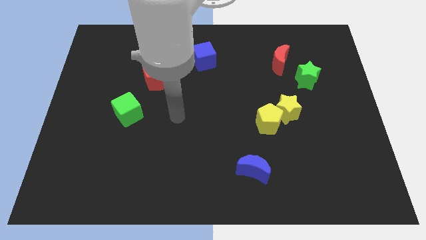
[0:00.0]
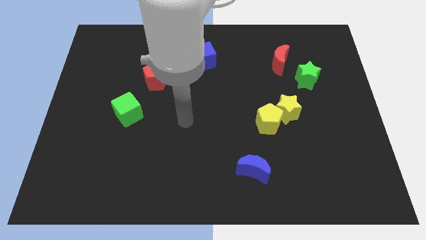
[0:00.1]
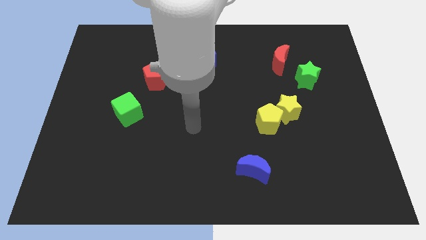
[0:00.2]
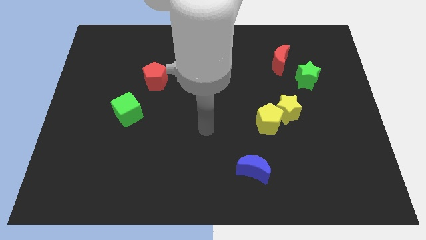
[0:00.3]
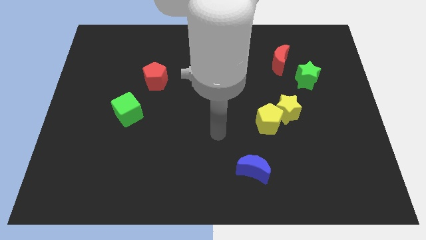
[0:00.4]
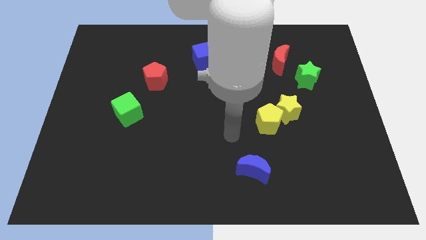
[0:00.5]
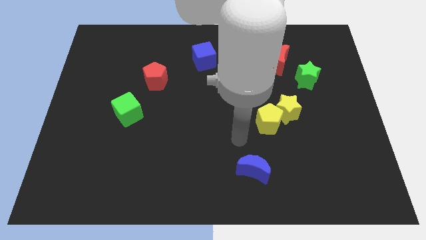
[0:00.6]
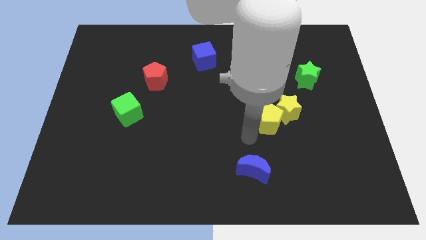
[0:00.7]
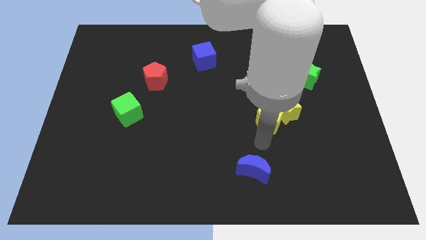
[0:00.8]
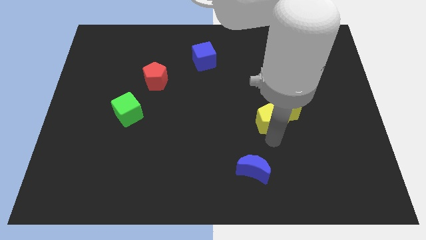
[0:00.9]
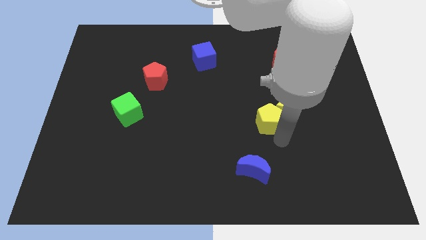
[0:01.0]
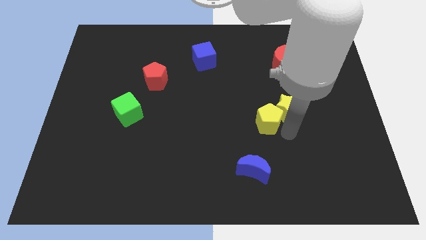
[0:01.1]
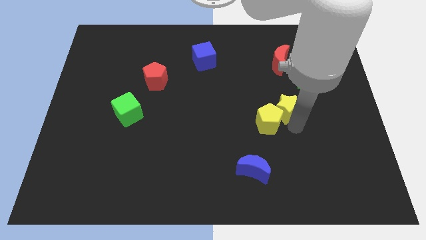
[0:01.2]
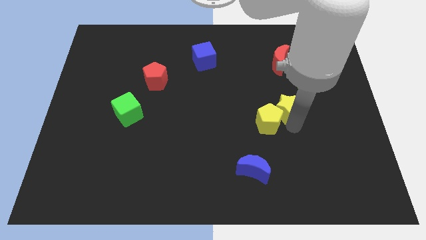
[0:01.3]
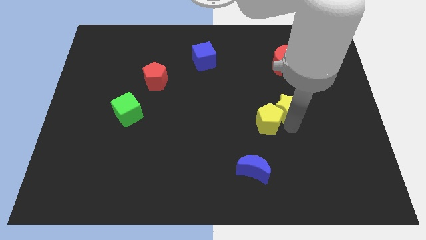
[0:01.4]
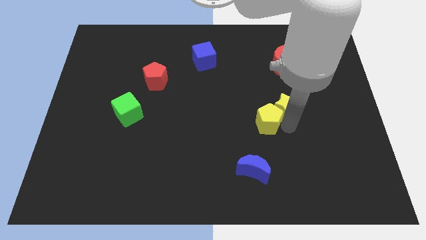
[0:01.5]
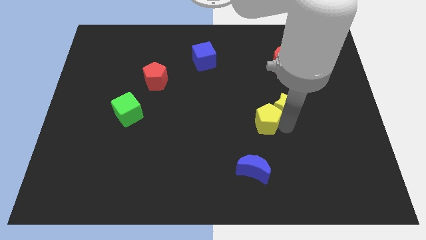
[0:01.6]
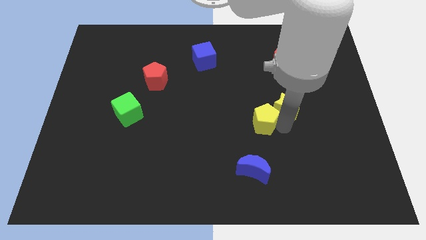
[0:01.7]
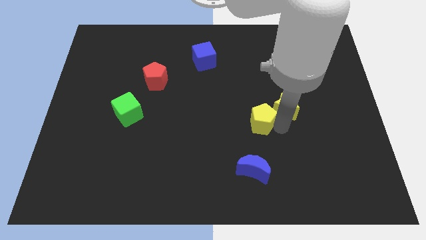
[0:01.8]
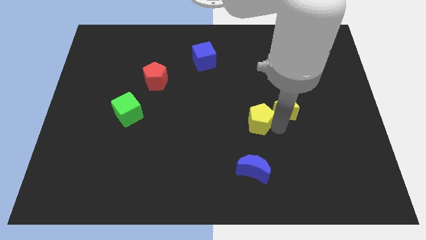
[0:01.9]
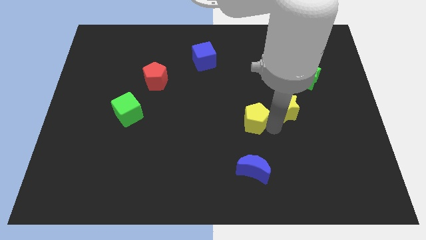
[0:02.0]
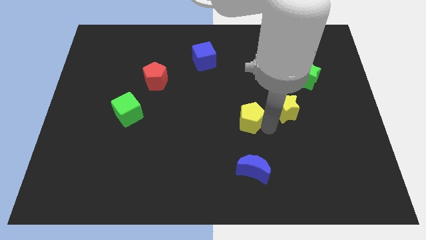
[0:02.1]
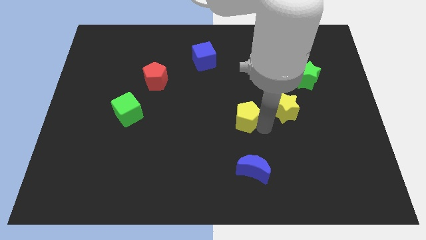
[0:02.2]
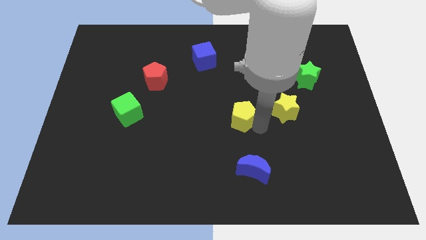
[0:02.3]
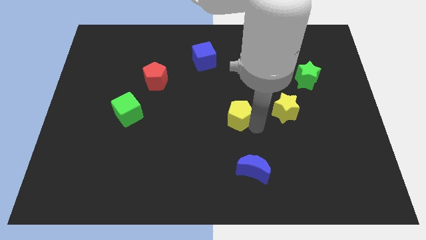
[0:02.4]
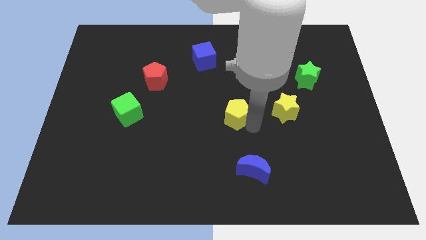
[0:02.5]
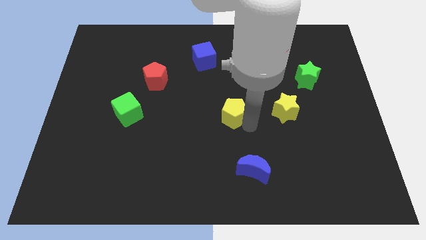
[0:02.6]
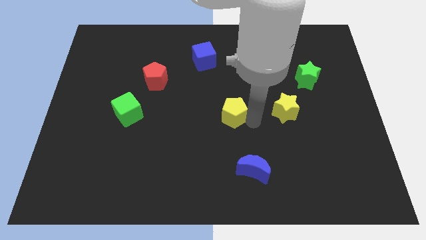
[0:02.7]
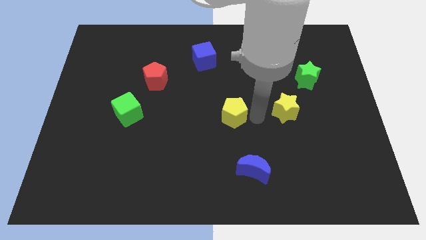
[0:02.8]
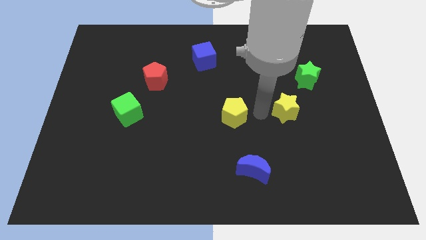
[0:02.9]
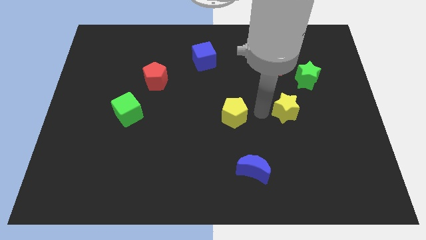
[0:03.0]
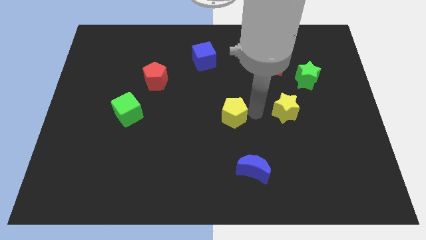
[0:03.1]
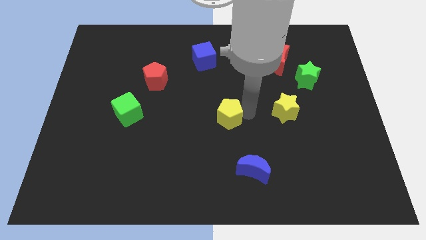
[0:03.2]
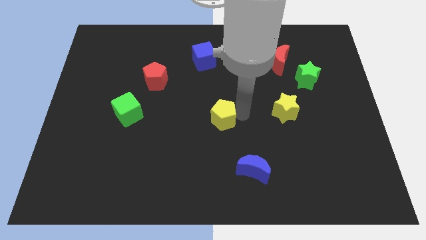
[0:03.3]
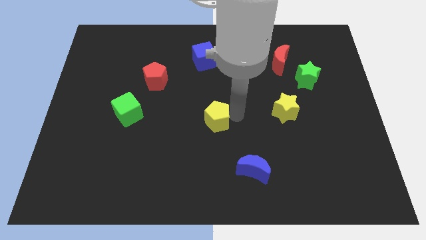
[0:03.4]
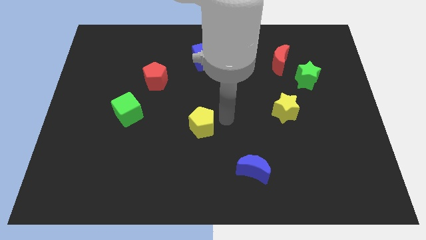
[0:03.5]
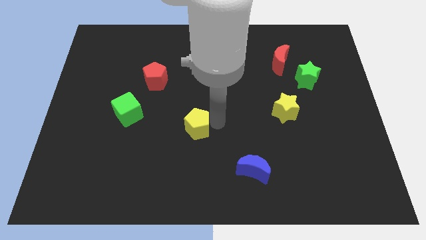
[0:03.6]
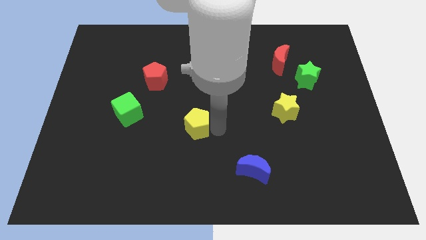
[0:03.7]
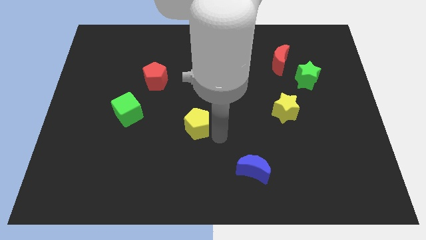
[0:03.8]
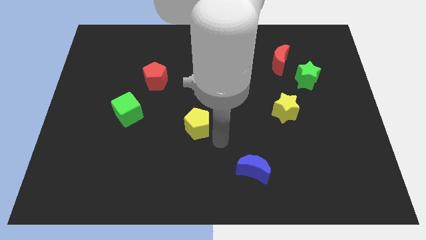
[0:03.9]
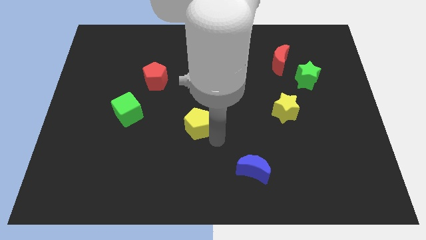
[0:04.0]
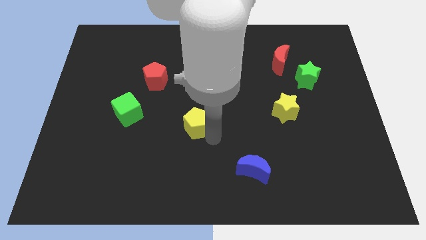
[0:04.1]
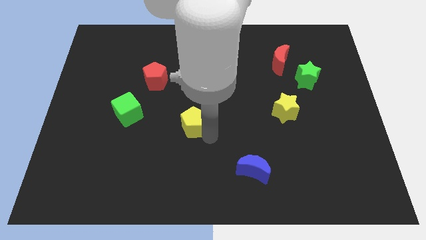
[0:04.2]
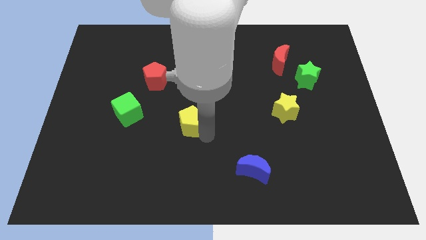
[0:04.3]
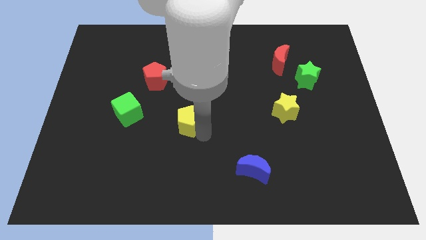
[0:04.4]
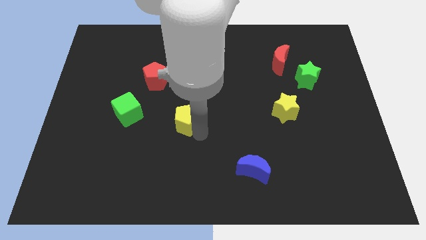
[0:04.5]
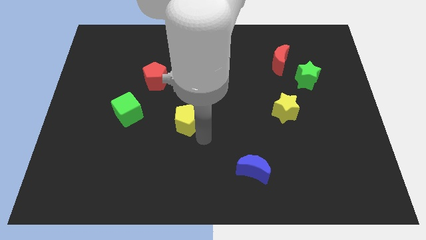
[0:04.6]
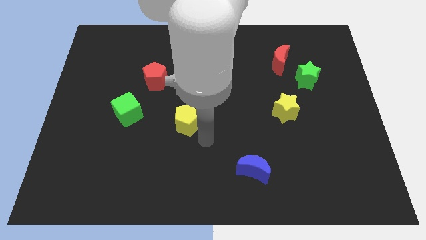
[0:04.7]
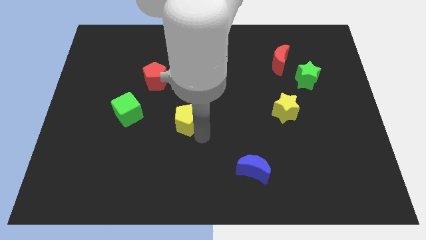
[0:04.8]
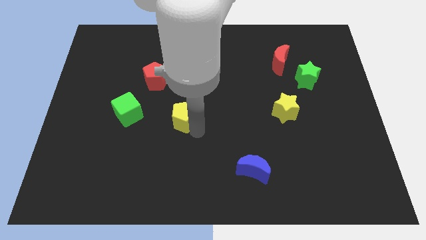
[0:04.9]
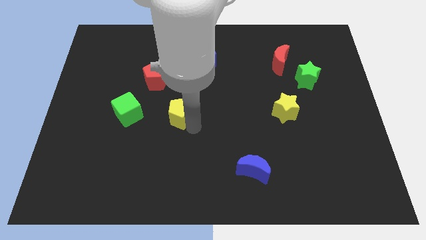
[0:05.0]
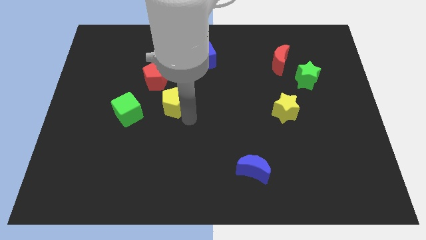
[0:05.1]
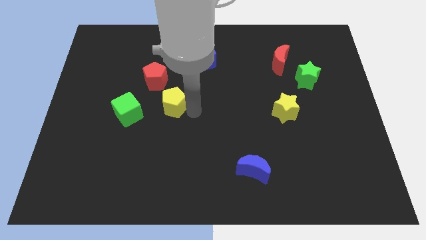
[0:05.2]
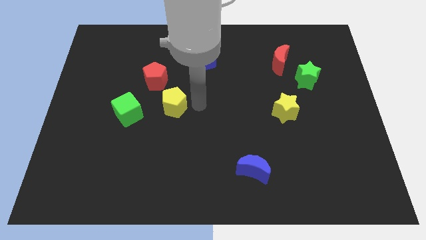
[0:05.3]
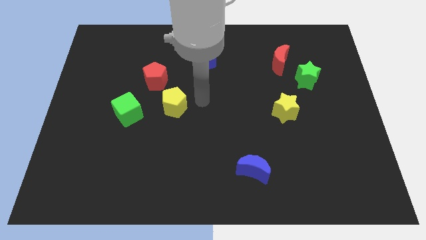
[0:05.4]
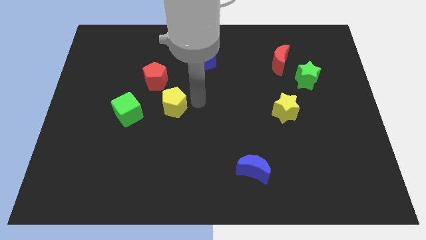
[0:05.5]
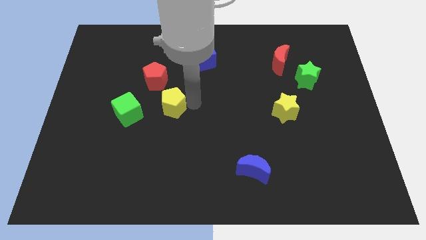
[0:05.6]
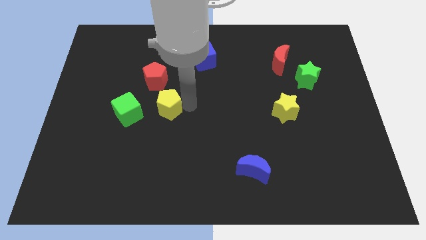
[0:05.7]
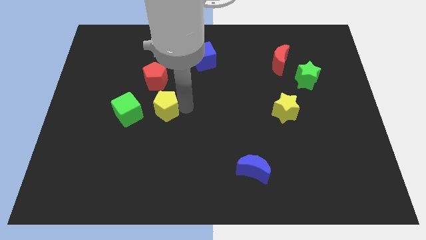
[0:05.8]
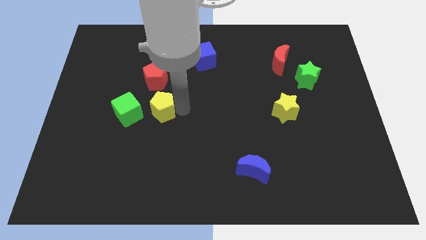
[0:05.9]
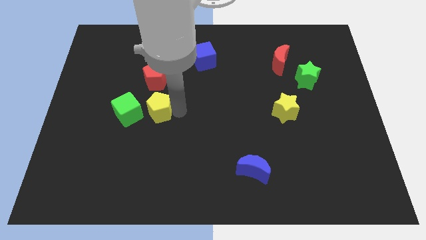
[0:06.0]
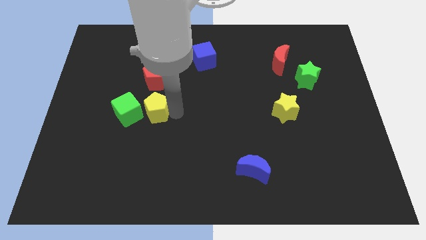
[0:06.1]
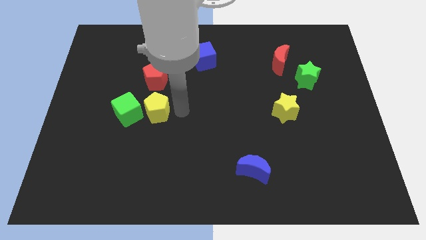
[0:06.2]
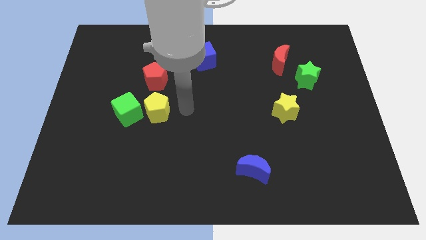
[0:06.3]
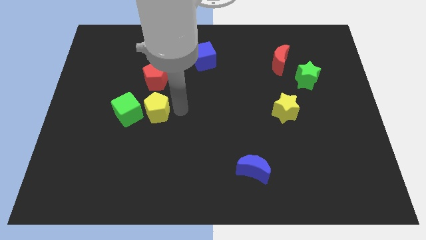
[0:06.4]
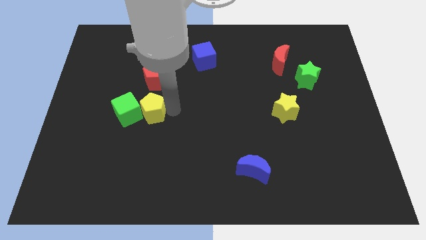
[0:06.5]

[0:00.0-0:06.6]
push the yellow pentagon close to the green cube

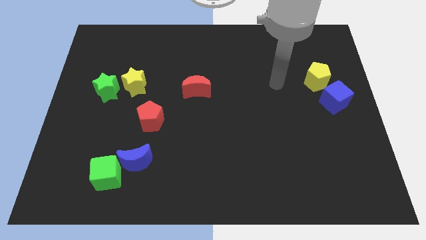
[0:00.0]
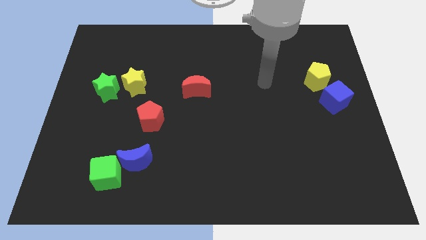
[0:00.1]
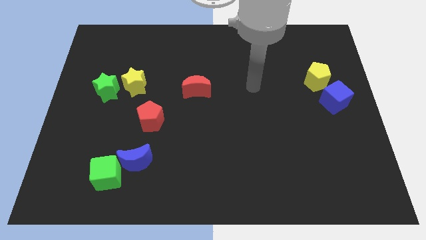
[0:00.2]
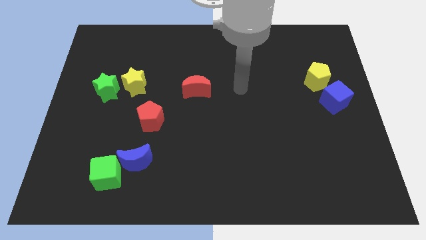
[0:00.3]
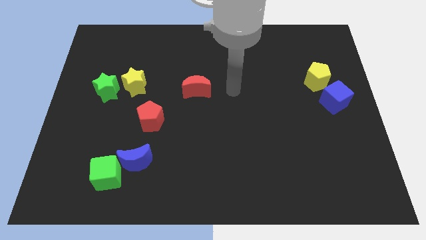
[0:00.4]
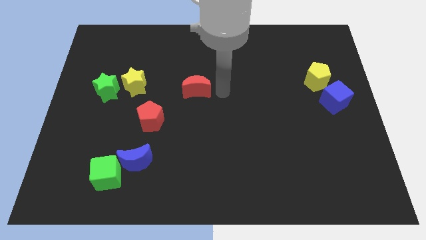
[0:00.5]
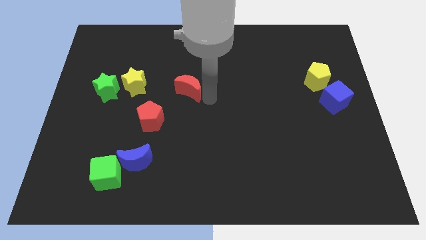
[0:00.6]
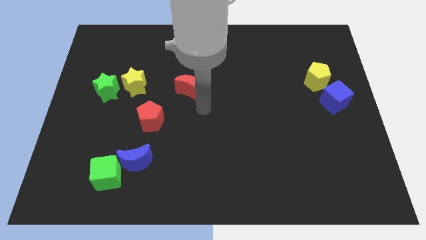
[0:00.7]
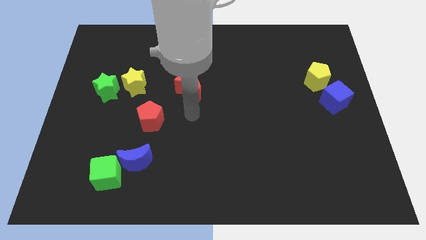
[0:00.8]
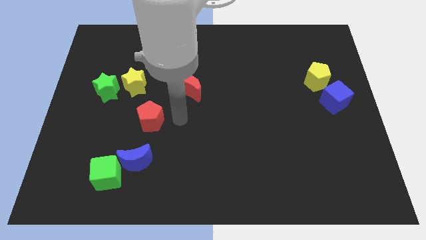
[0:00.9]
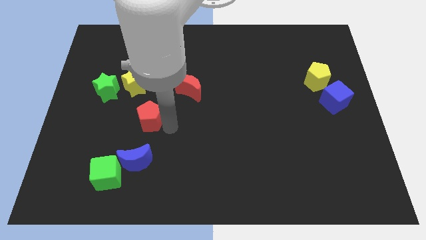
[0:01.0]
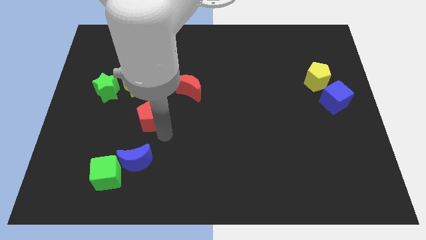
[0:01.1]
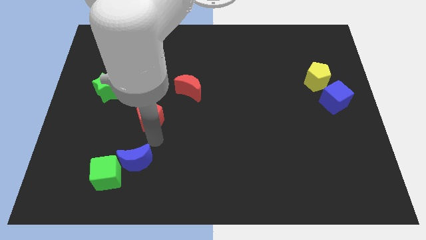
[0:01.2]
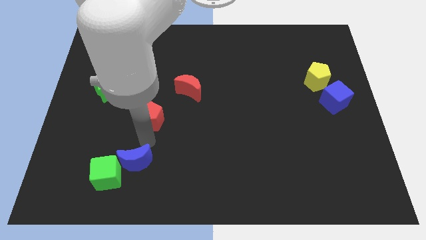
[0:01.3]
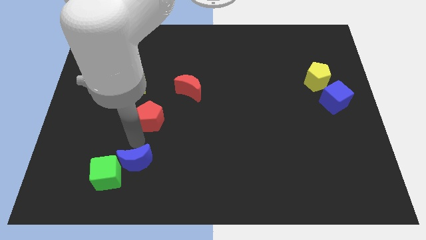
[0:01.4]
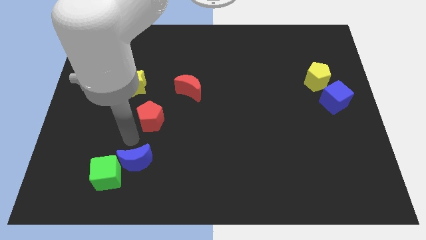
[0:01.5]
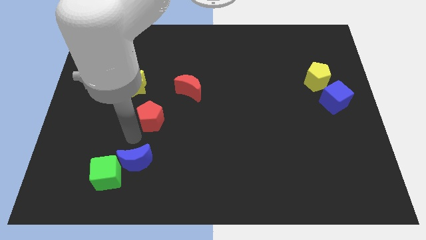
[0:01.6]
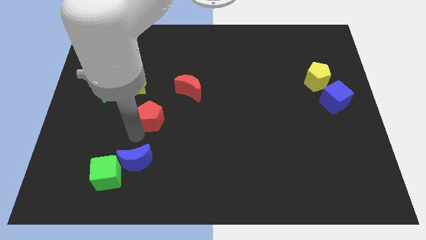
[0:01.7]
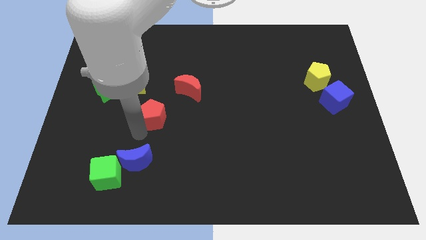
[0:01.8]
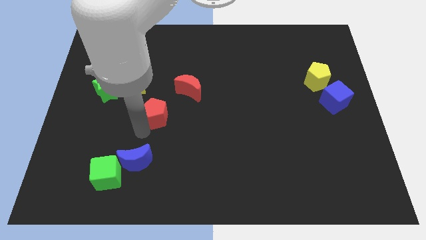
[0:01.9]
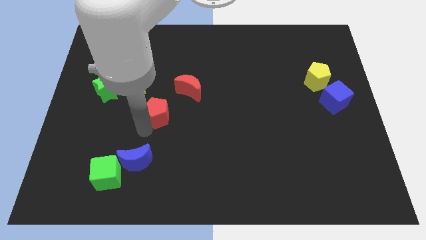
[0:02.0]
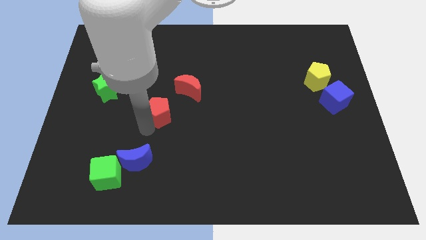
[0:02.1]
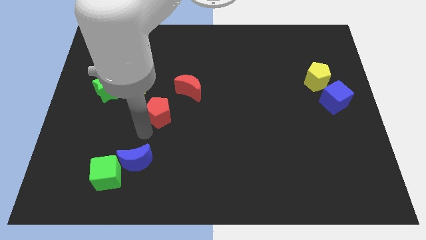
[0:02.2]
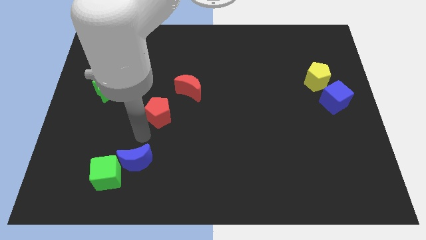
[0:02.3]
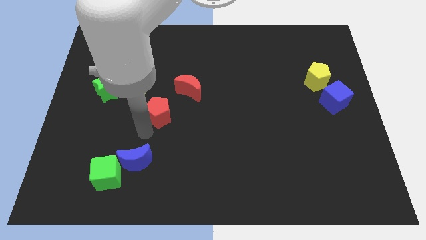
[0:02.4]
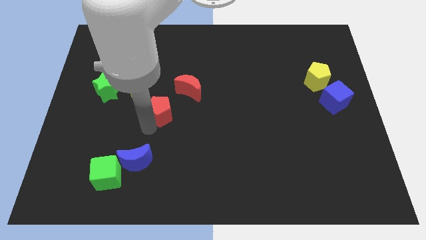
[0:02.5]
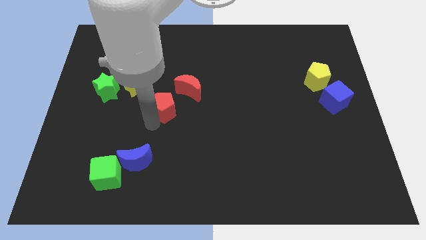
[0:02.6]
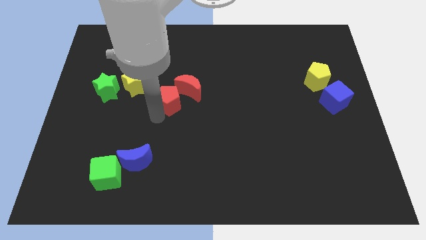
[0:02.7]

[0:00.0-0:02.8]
slide the red pentagon next to the red moon
